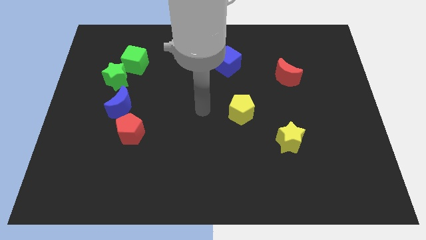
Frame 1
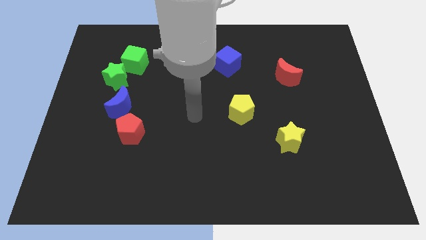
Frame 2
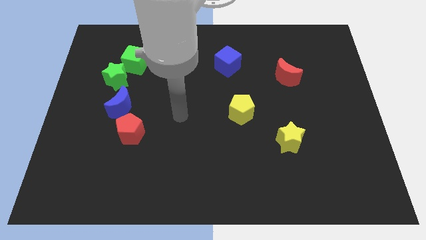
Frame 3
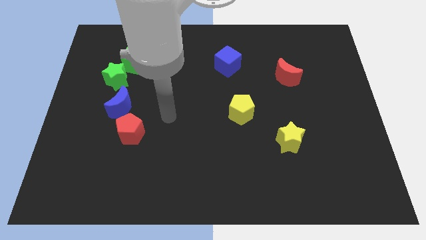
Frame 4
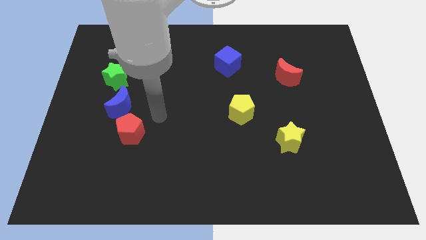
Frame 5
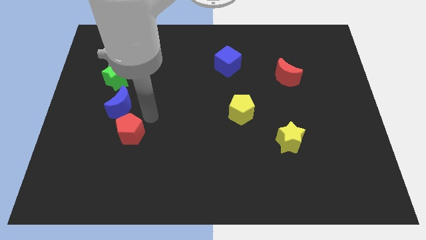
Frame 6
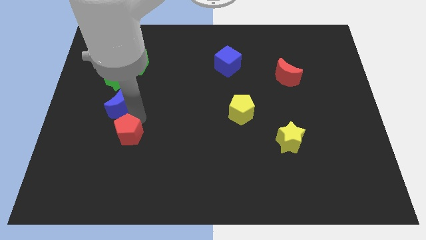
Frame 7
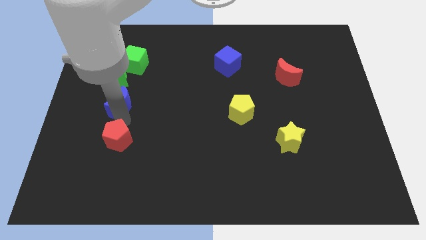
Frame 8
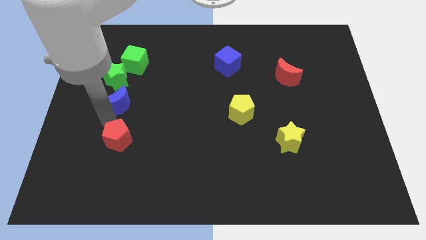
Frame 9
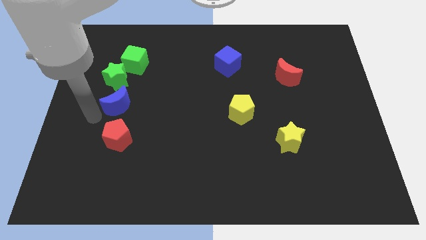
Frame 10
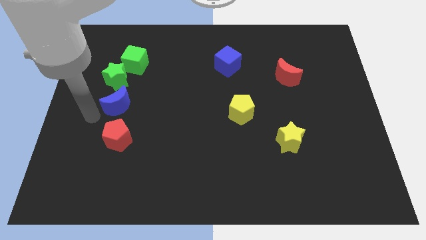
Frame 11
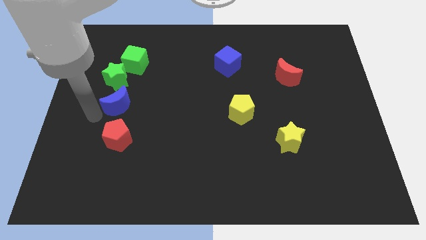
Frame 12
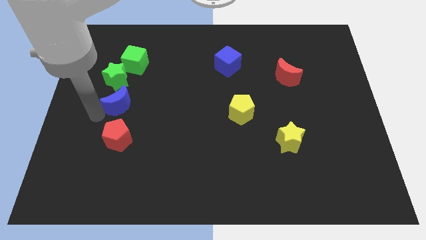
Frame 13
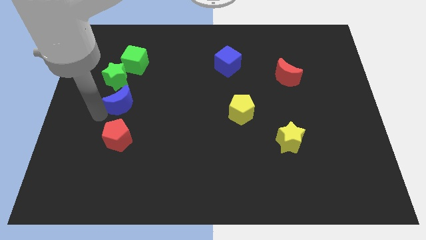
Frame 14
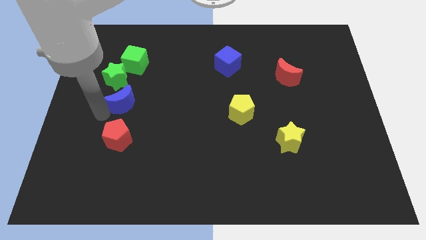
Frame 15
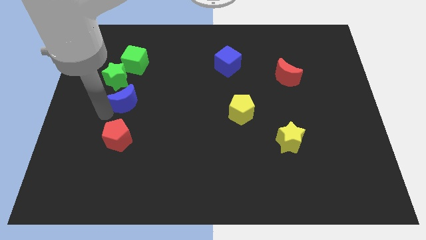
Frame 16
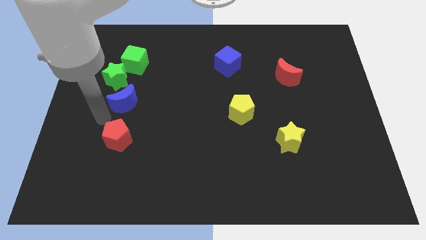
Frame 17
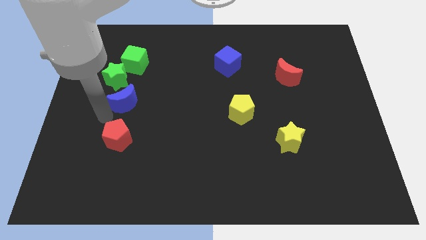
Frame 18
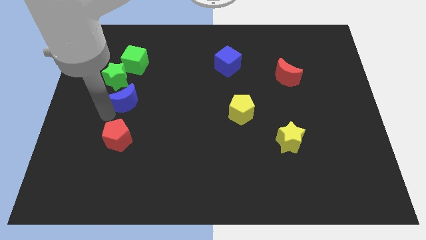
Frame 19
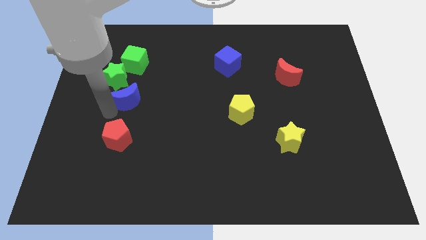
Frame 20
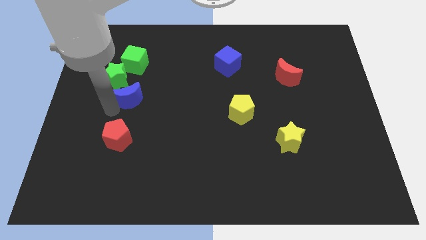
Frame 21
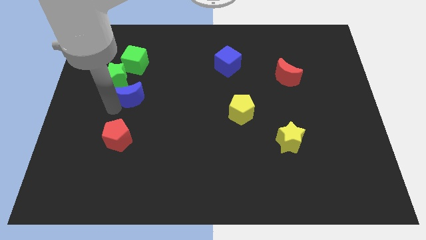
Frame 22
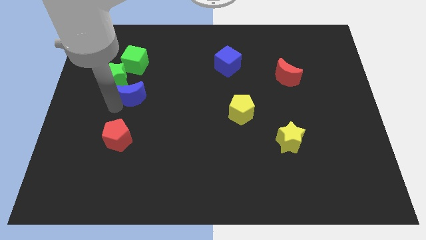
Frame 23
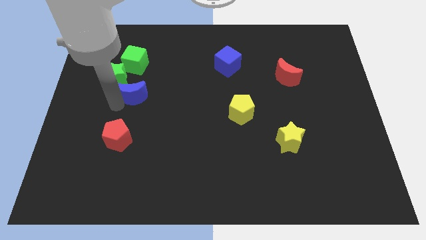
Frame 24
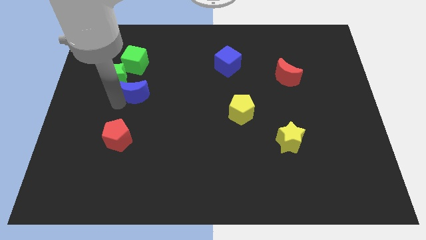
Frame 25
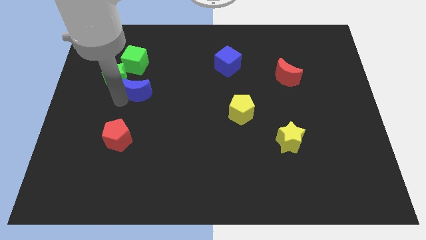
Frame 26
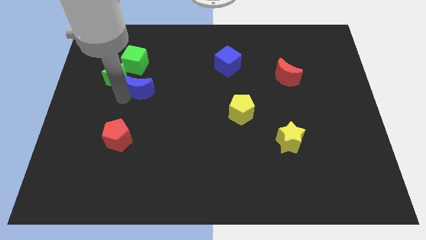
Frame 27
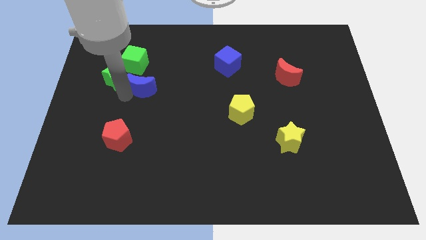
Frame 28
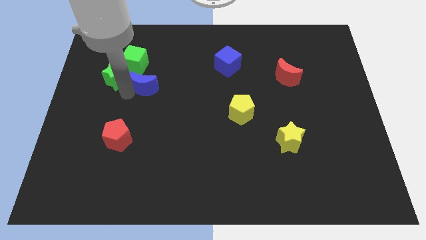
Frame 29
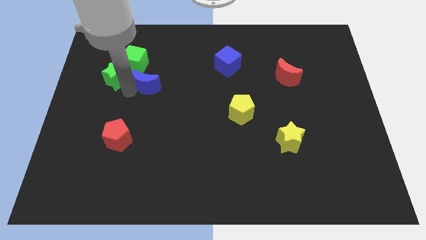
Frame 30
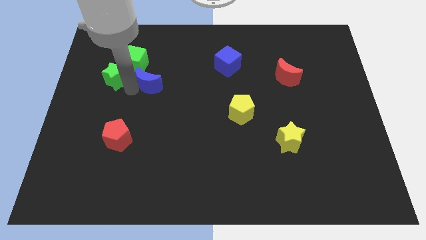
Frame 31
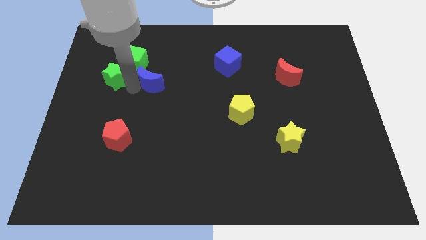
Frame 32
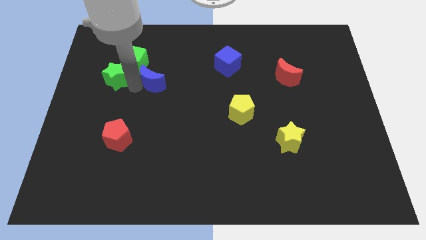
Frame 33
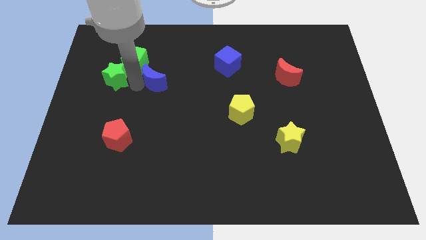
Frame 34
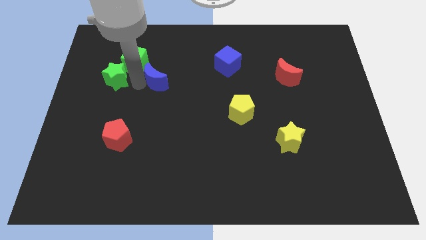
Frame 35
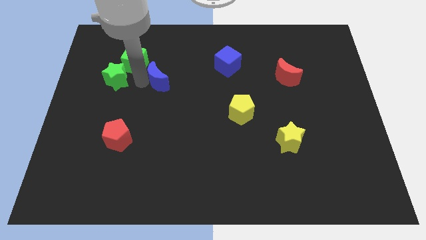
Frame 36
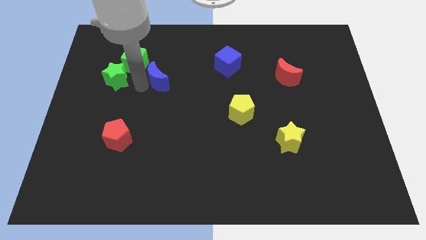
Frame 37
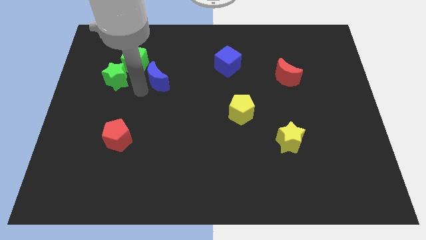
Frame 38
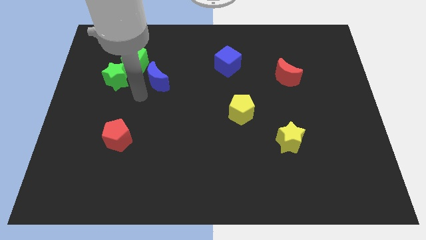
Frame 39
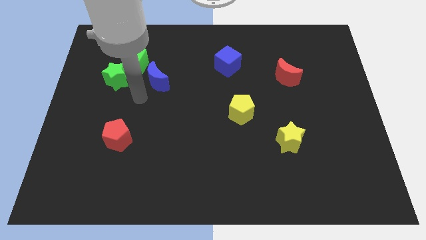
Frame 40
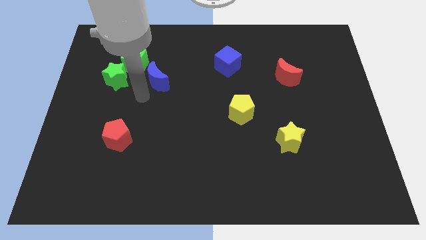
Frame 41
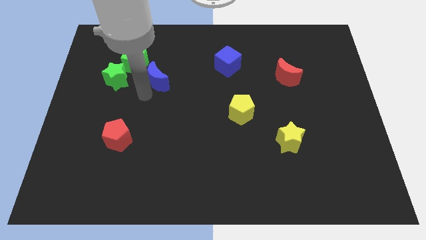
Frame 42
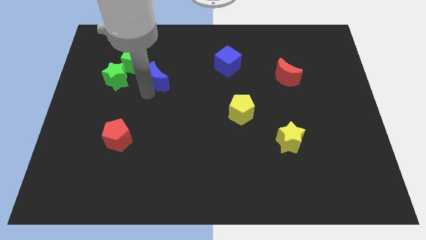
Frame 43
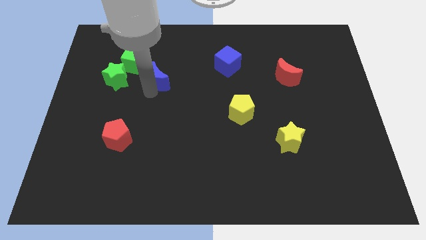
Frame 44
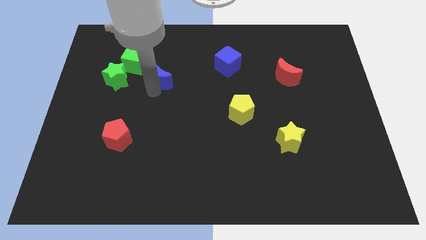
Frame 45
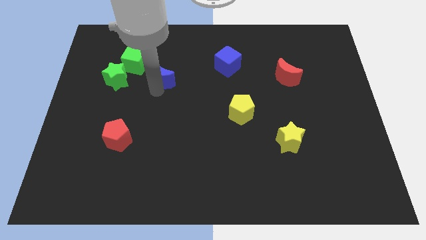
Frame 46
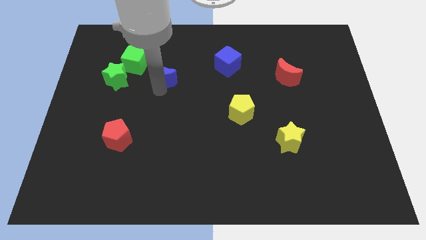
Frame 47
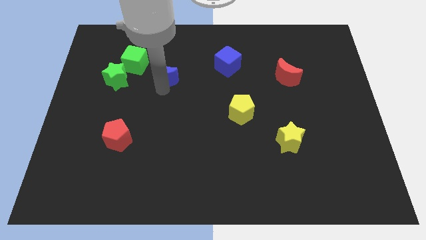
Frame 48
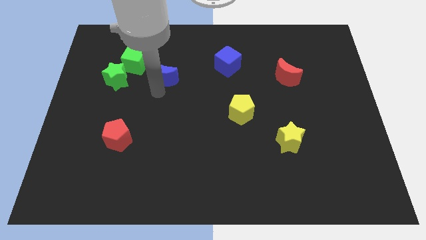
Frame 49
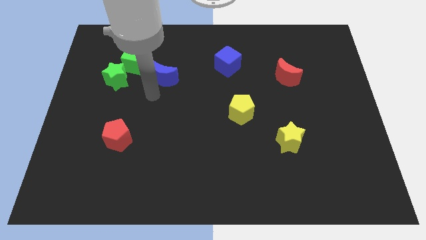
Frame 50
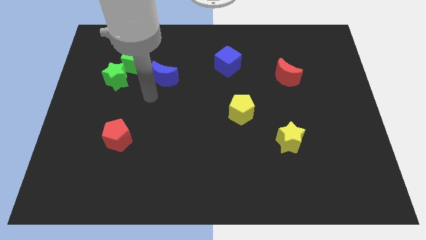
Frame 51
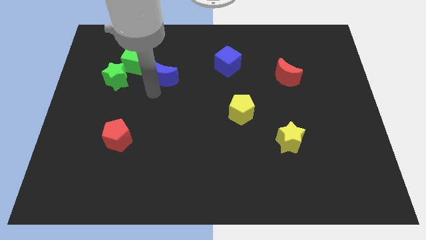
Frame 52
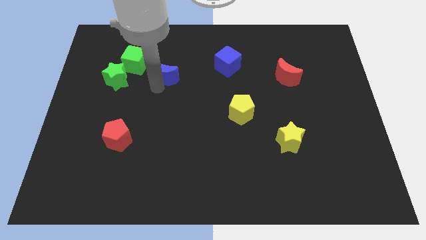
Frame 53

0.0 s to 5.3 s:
slide the blue moon right of the green cube

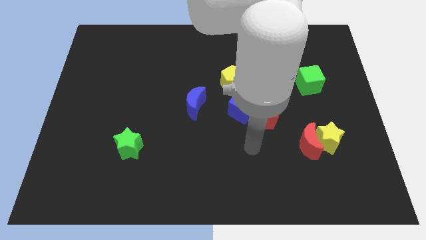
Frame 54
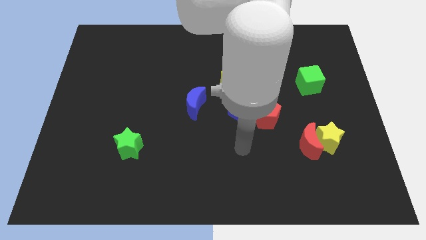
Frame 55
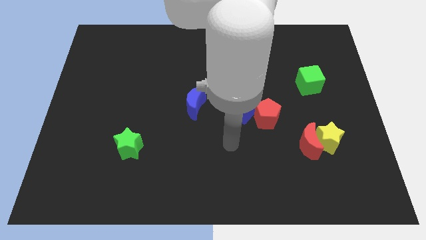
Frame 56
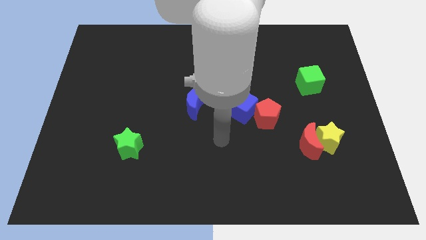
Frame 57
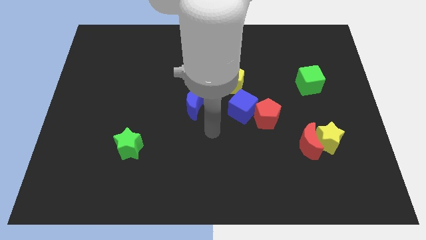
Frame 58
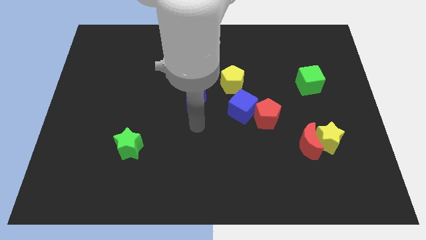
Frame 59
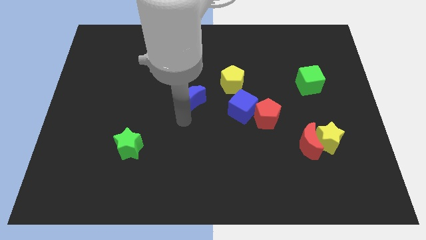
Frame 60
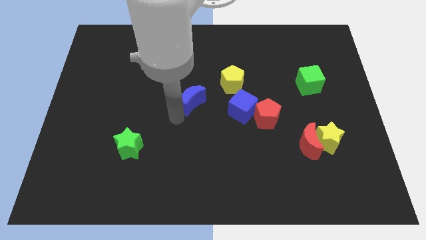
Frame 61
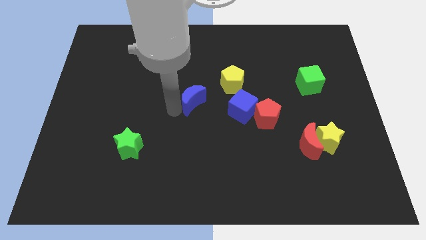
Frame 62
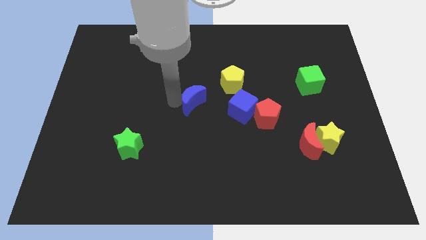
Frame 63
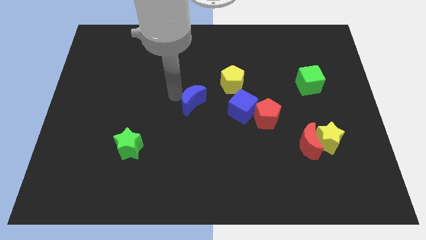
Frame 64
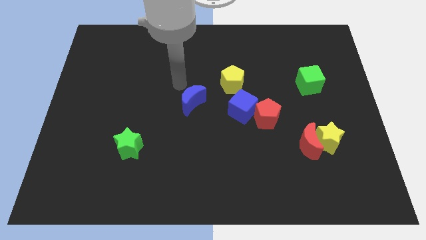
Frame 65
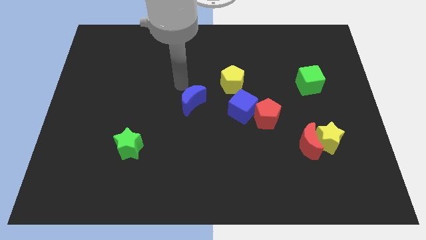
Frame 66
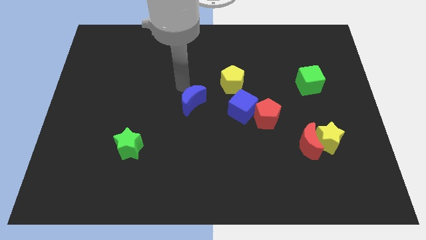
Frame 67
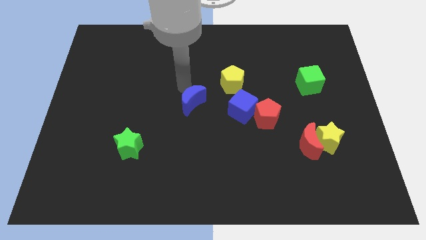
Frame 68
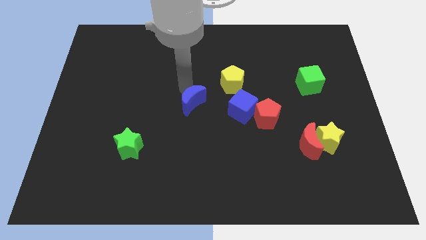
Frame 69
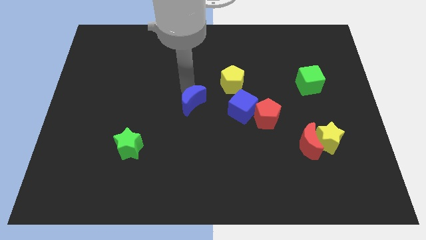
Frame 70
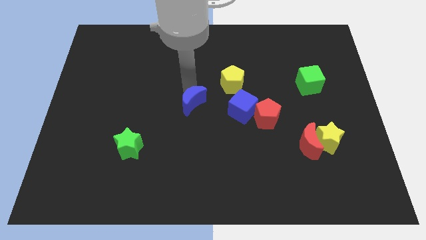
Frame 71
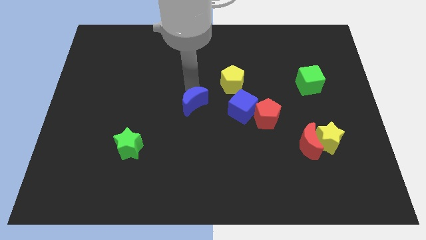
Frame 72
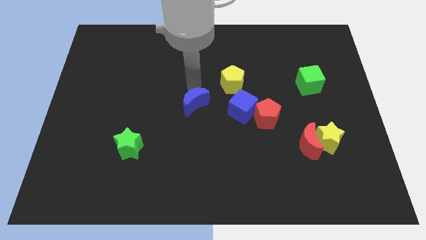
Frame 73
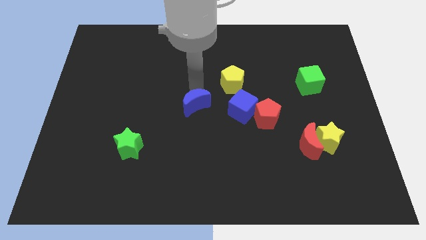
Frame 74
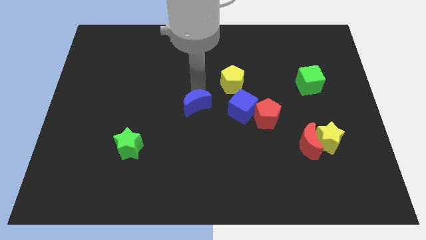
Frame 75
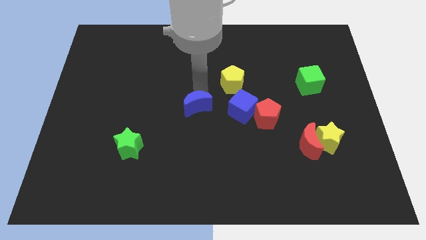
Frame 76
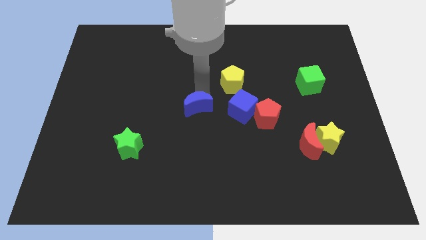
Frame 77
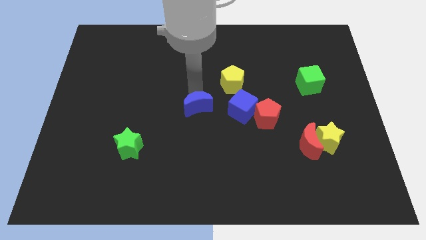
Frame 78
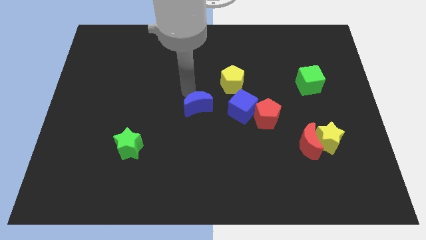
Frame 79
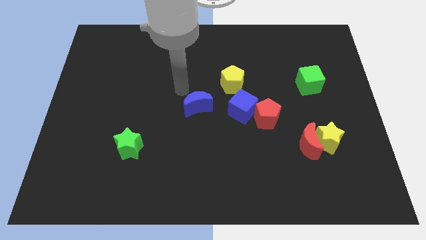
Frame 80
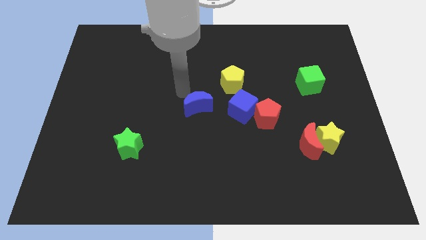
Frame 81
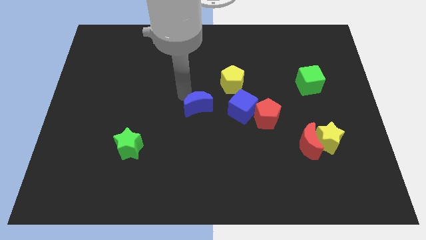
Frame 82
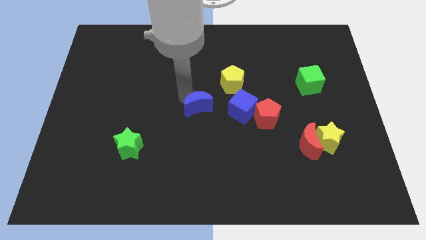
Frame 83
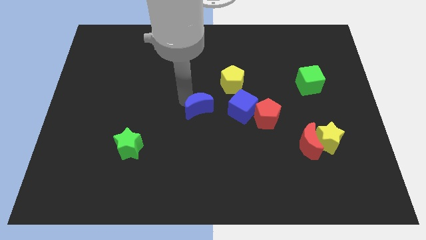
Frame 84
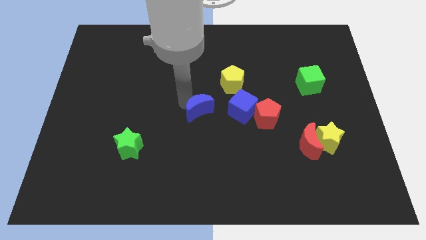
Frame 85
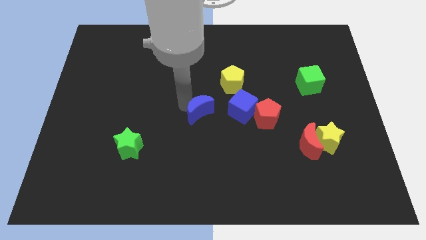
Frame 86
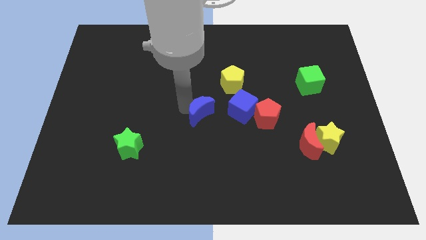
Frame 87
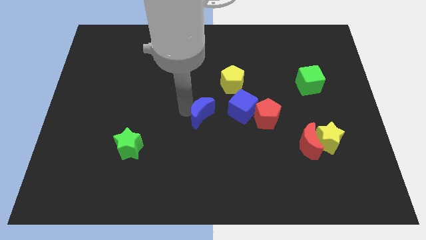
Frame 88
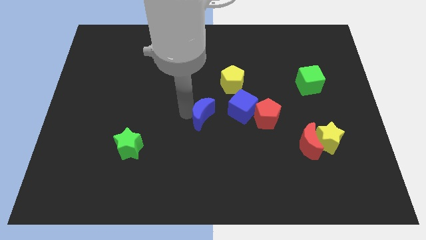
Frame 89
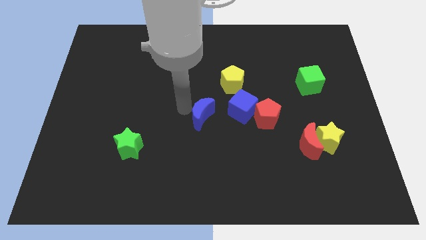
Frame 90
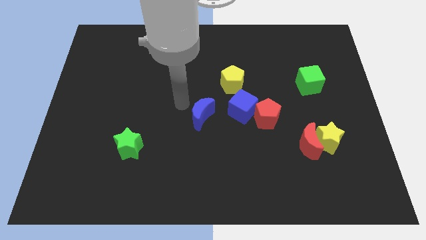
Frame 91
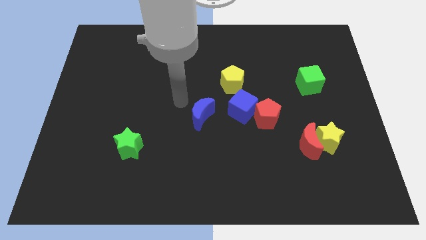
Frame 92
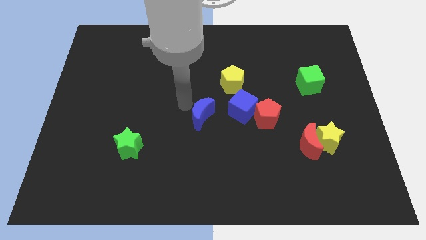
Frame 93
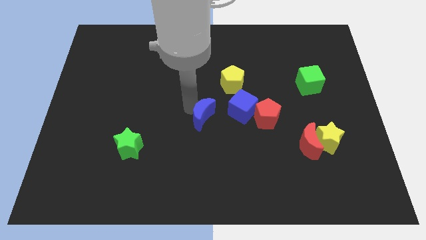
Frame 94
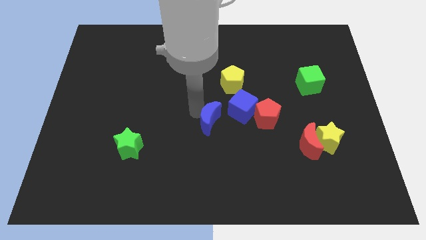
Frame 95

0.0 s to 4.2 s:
move the blue moon diagonally down and to the left of the blue cube
